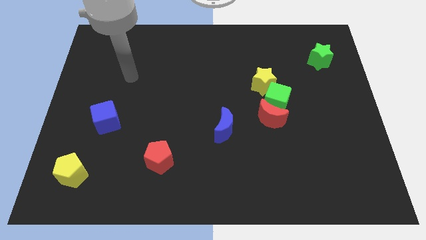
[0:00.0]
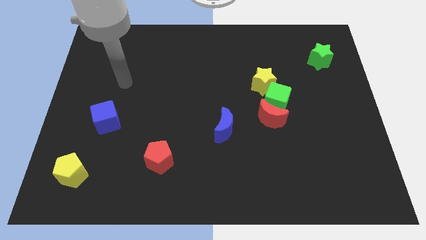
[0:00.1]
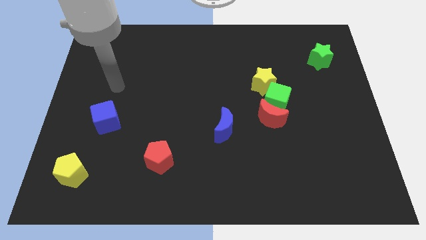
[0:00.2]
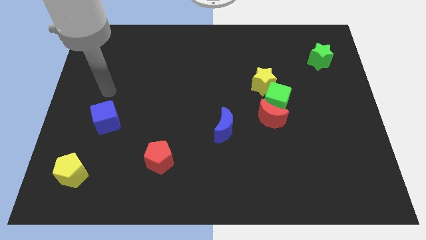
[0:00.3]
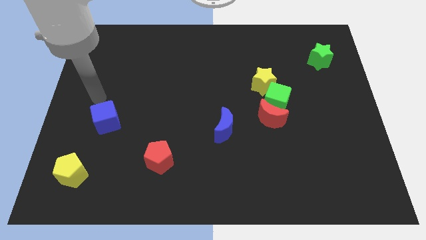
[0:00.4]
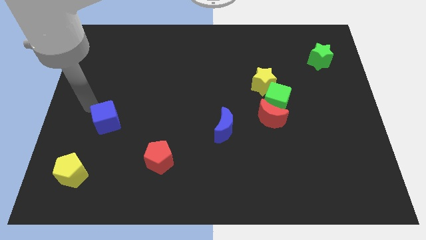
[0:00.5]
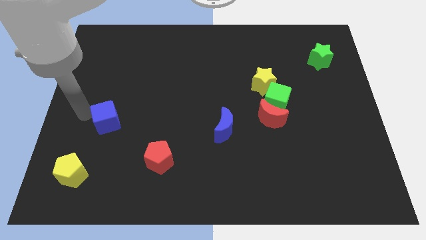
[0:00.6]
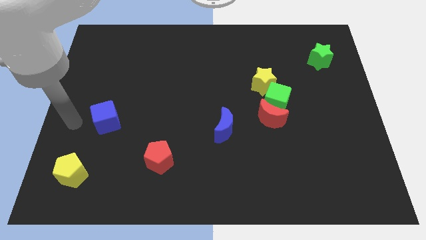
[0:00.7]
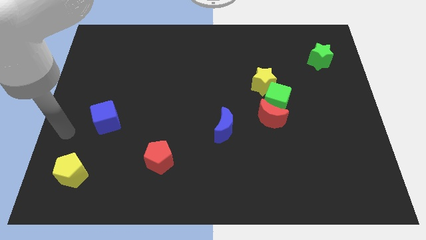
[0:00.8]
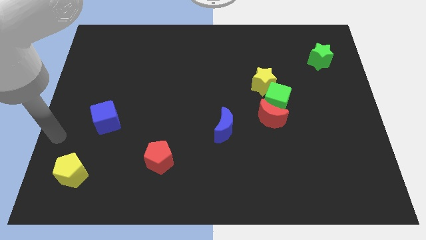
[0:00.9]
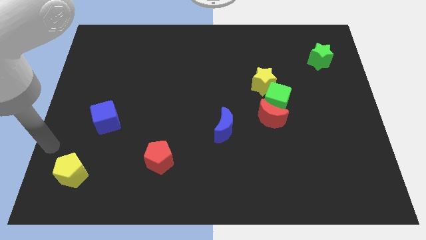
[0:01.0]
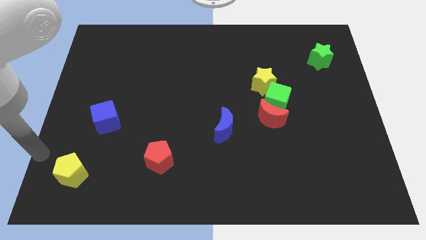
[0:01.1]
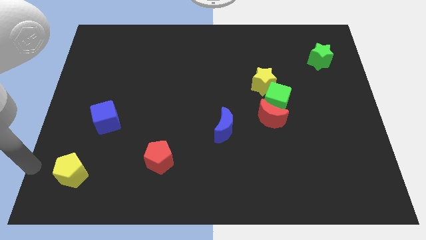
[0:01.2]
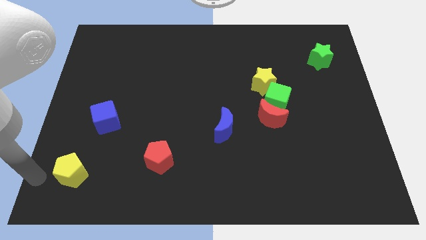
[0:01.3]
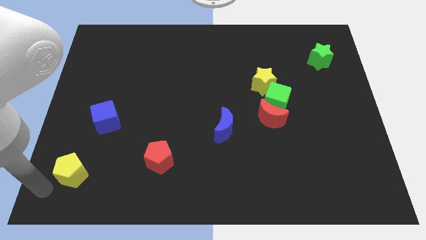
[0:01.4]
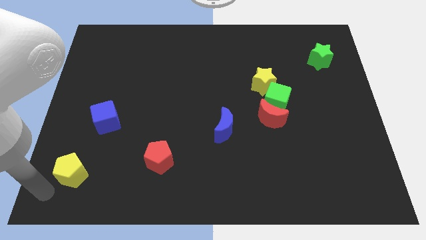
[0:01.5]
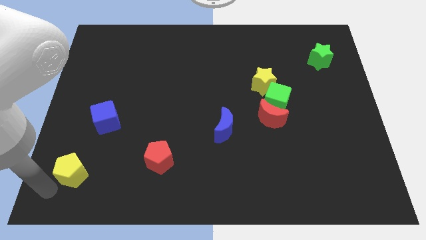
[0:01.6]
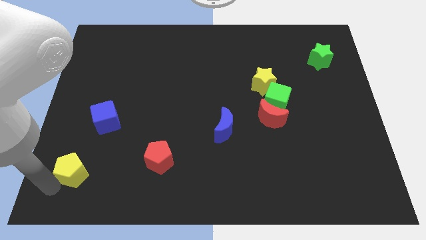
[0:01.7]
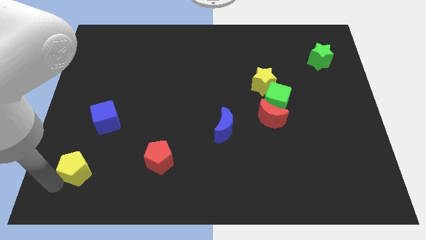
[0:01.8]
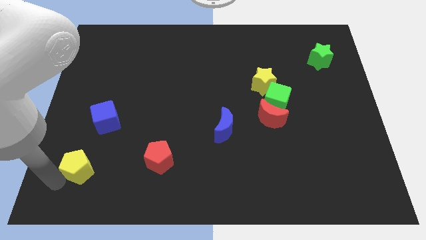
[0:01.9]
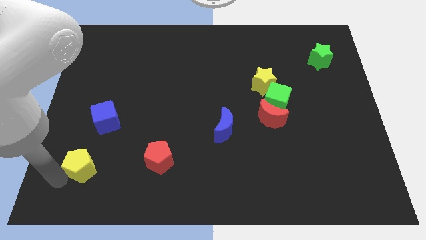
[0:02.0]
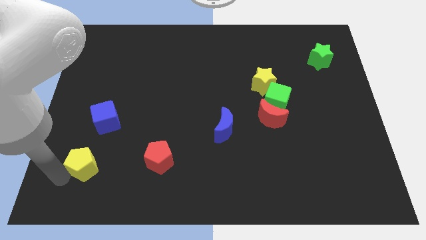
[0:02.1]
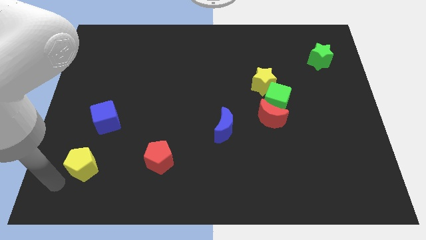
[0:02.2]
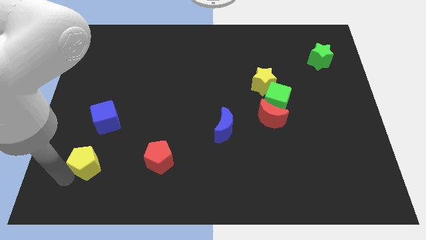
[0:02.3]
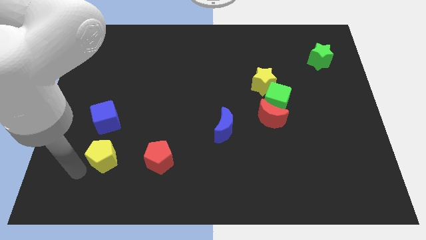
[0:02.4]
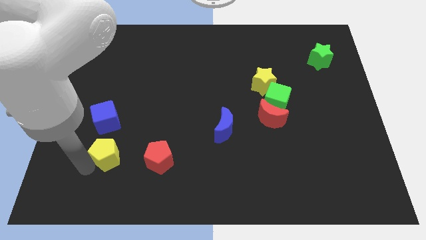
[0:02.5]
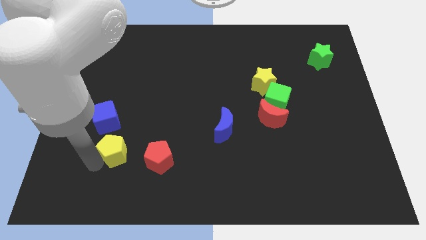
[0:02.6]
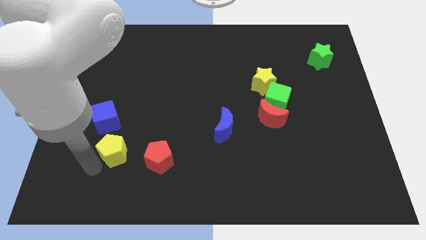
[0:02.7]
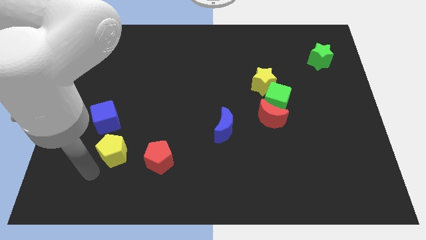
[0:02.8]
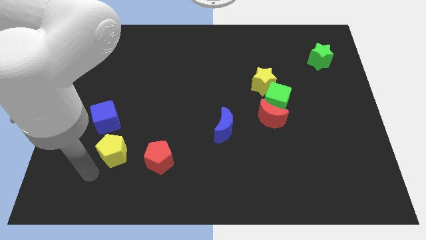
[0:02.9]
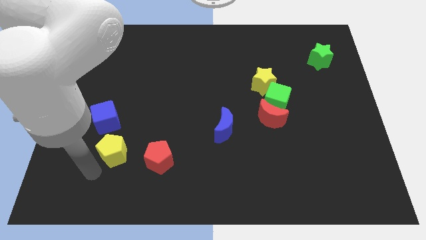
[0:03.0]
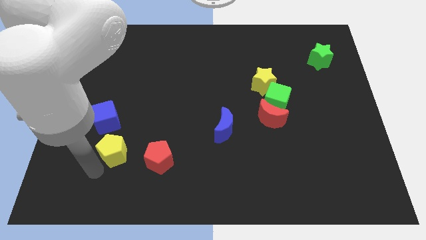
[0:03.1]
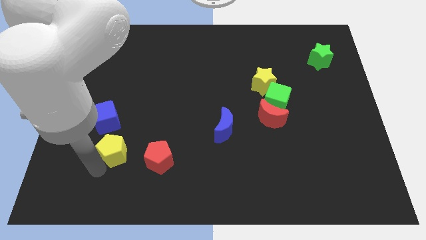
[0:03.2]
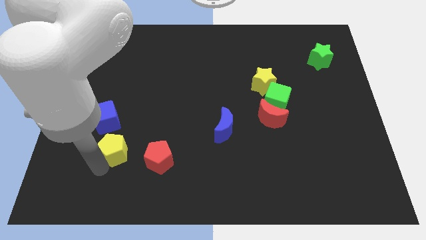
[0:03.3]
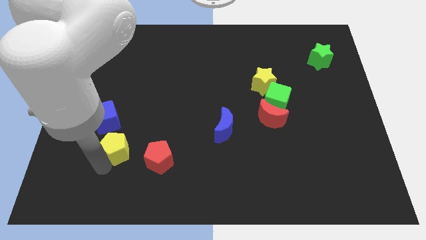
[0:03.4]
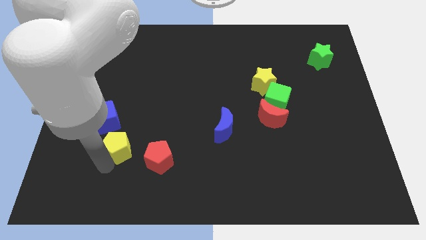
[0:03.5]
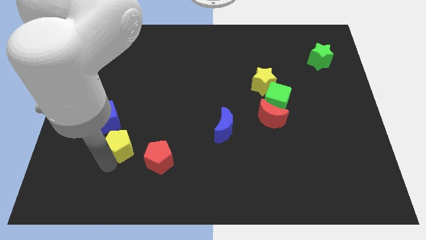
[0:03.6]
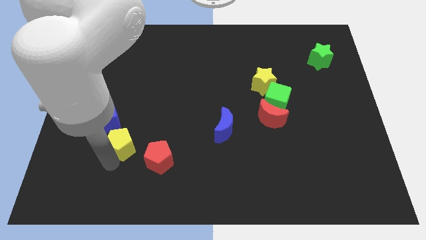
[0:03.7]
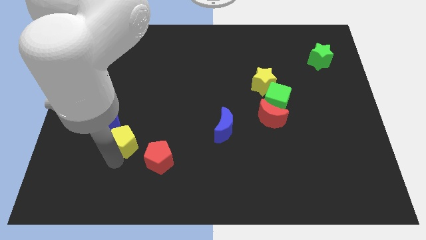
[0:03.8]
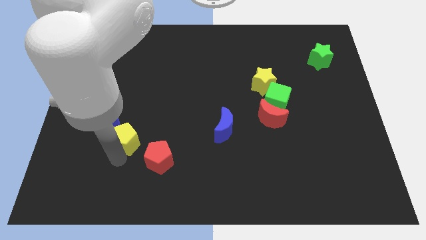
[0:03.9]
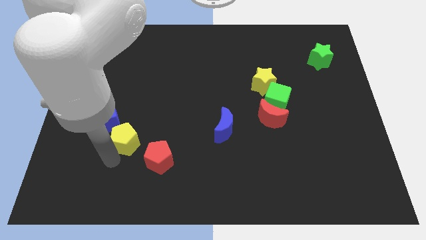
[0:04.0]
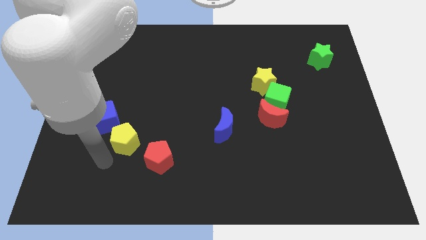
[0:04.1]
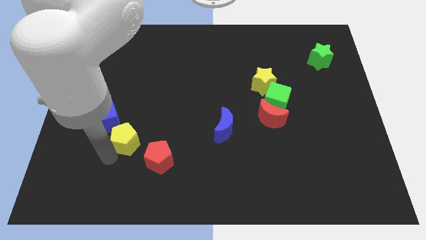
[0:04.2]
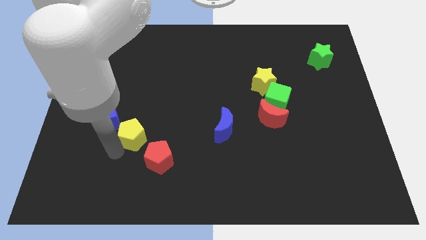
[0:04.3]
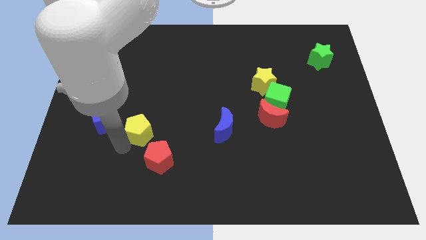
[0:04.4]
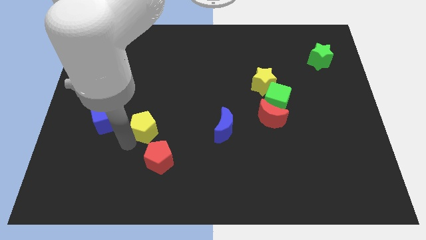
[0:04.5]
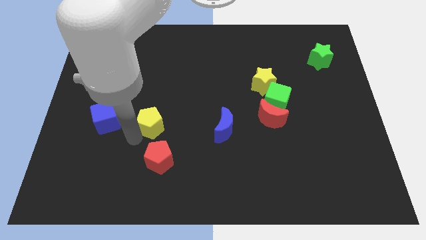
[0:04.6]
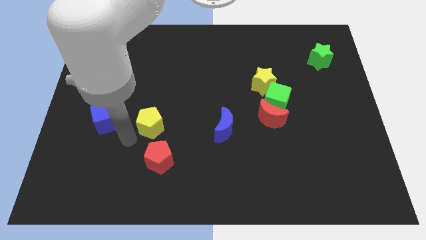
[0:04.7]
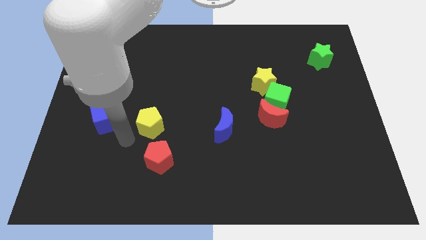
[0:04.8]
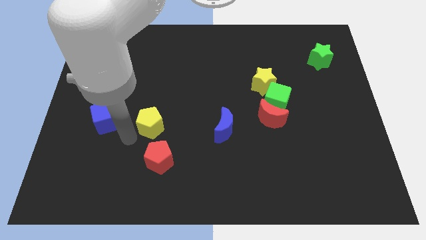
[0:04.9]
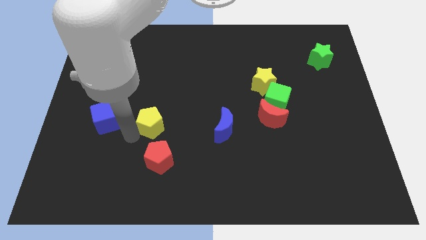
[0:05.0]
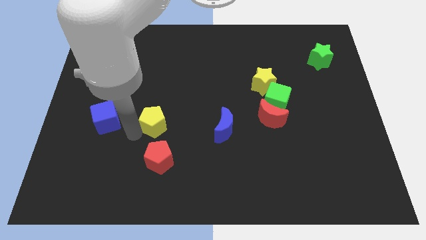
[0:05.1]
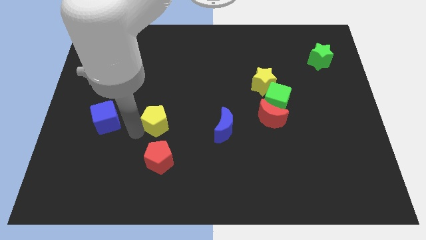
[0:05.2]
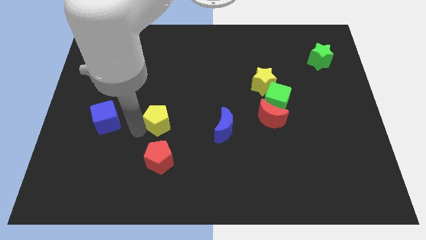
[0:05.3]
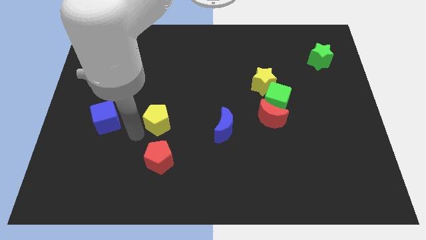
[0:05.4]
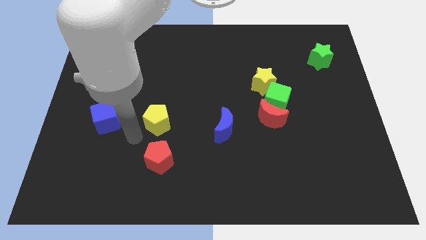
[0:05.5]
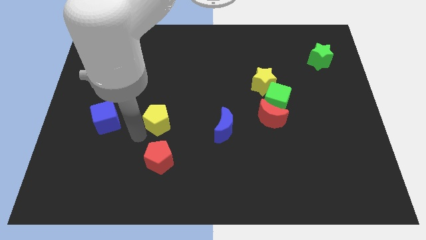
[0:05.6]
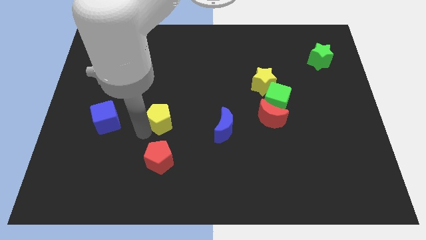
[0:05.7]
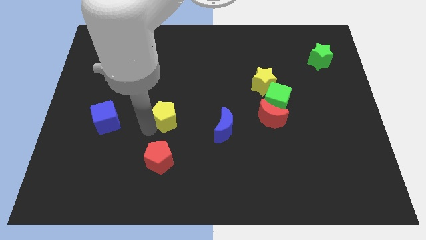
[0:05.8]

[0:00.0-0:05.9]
slide the yellow pentagon to the middle of the board
